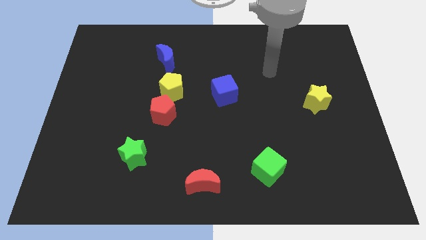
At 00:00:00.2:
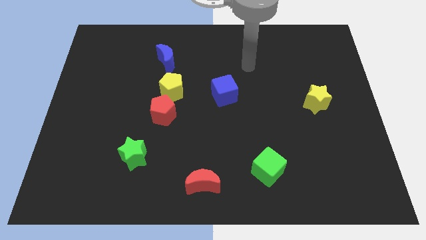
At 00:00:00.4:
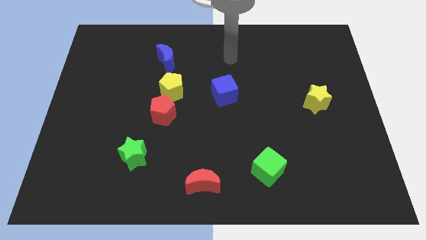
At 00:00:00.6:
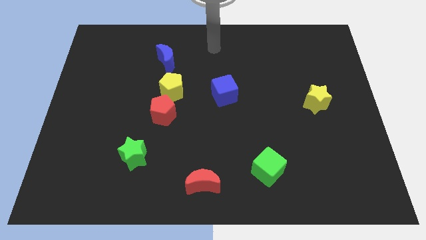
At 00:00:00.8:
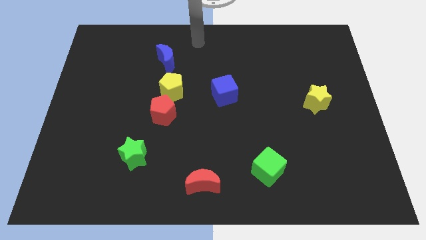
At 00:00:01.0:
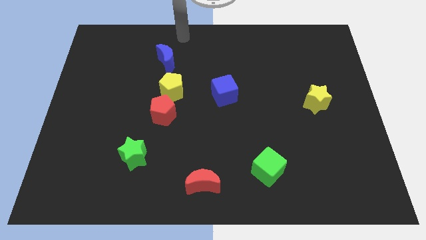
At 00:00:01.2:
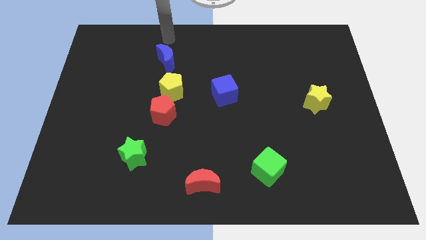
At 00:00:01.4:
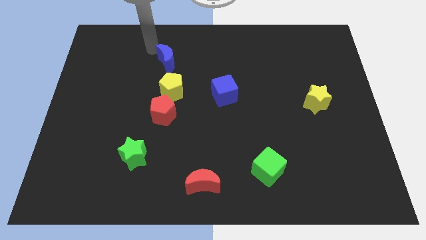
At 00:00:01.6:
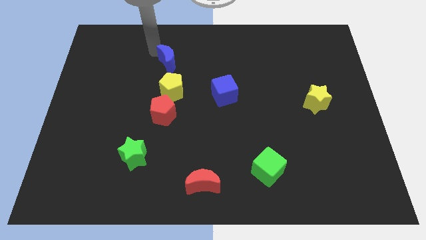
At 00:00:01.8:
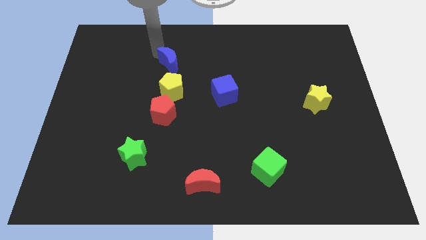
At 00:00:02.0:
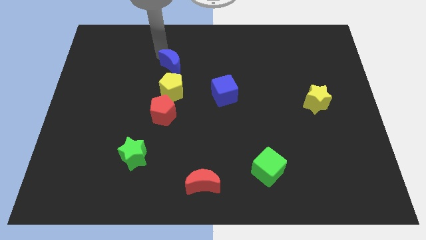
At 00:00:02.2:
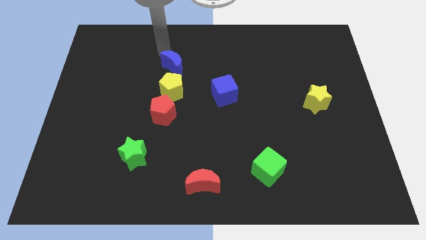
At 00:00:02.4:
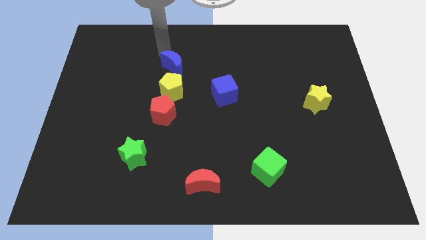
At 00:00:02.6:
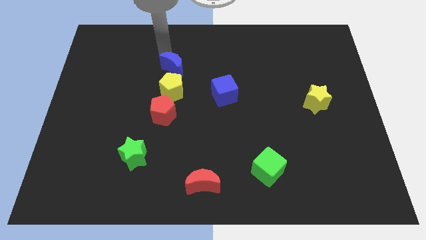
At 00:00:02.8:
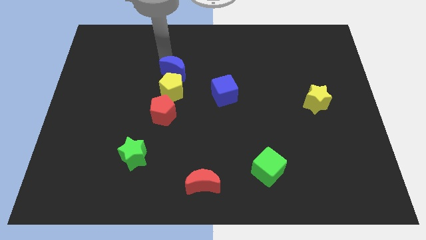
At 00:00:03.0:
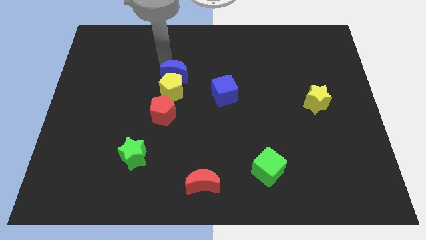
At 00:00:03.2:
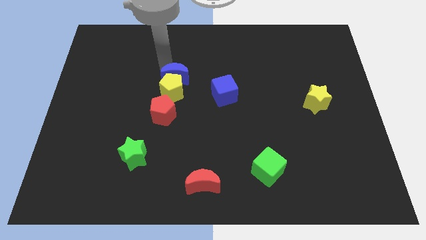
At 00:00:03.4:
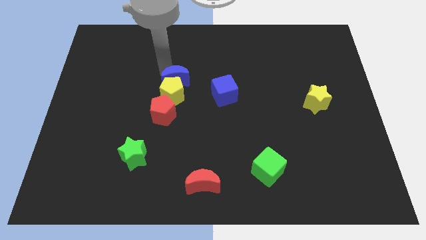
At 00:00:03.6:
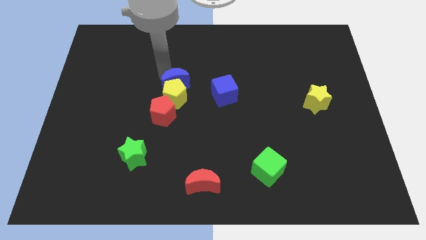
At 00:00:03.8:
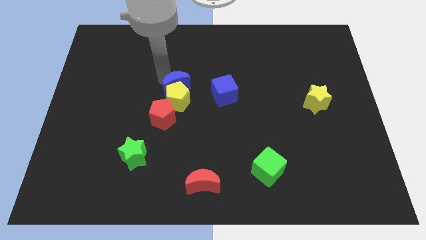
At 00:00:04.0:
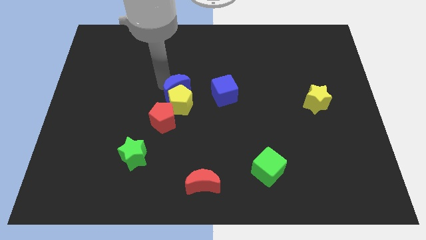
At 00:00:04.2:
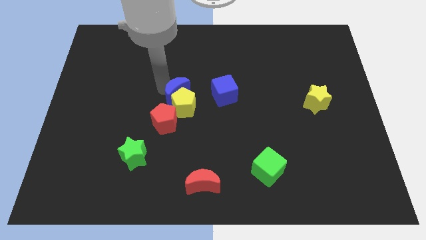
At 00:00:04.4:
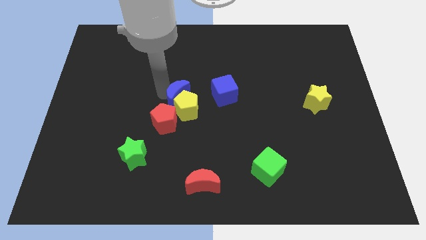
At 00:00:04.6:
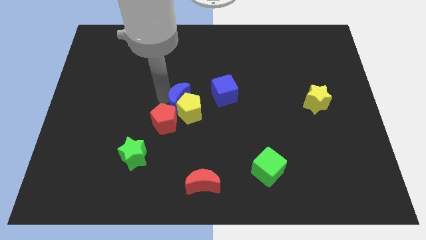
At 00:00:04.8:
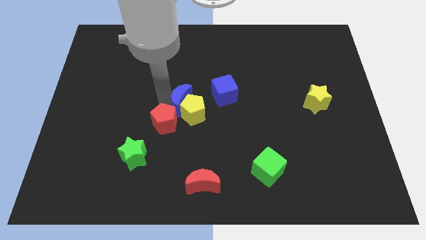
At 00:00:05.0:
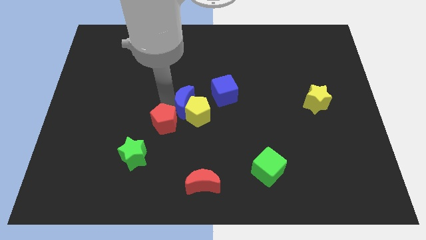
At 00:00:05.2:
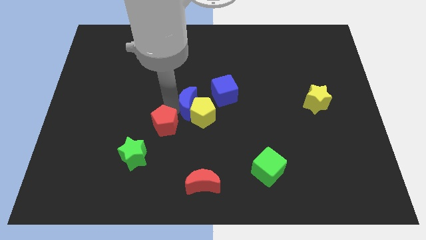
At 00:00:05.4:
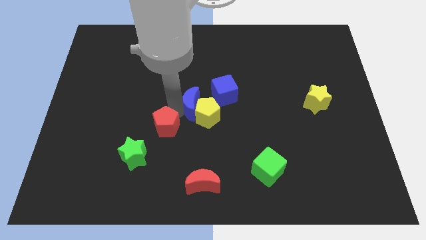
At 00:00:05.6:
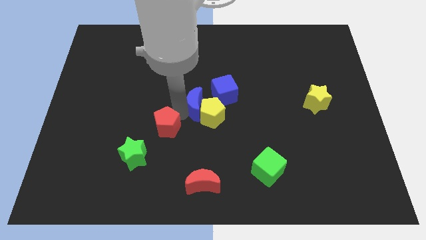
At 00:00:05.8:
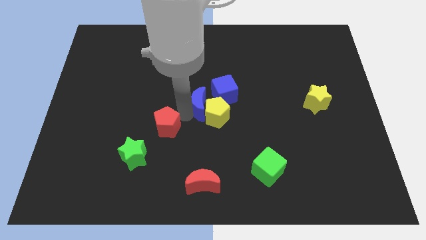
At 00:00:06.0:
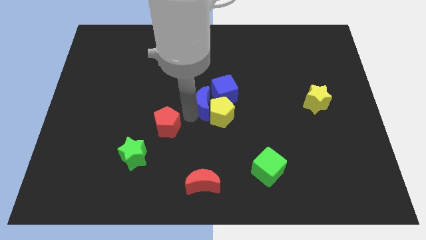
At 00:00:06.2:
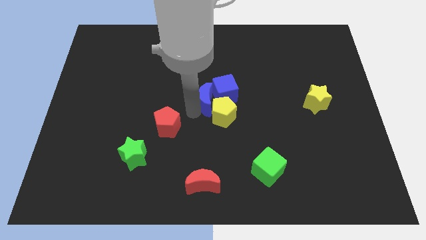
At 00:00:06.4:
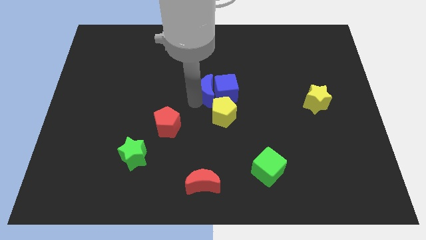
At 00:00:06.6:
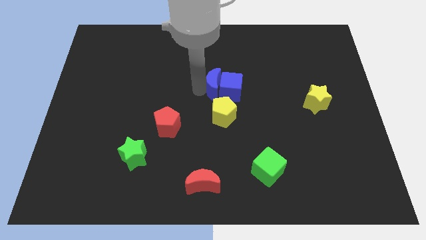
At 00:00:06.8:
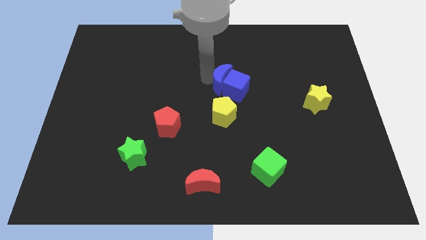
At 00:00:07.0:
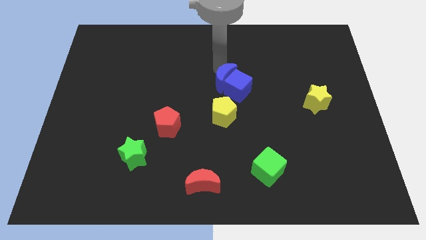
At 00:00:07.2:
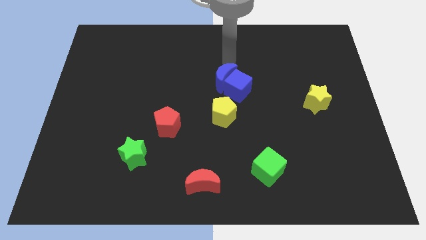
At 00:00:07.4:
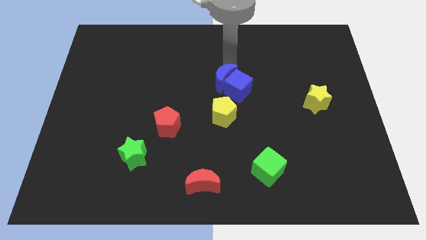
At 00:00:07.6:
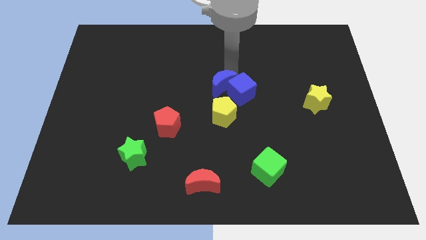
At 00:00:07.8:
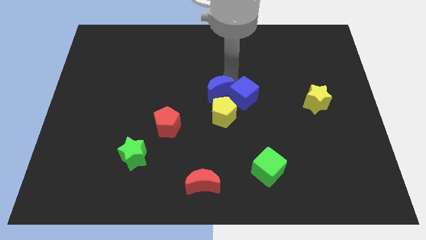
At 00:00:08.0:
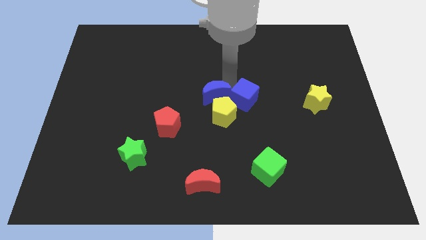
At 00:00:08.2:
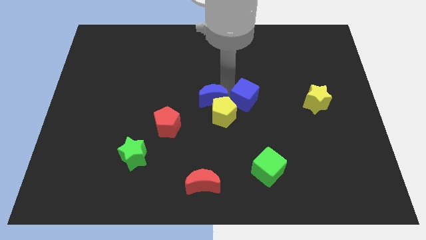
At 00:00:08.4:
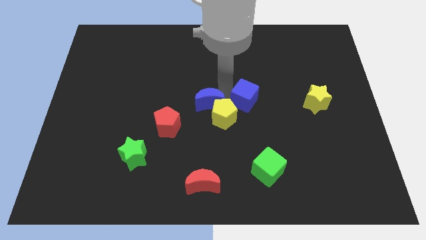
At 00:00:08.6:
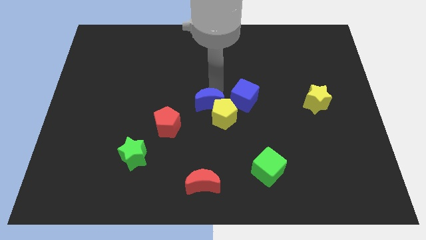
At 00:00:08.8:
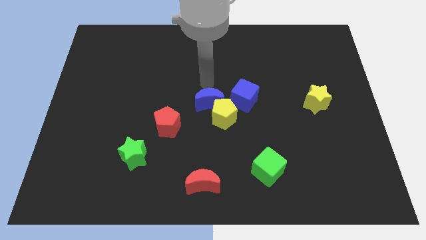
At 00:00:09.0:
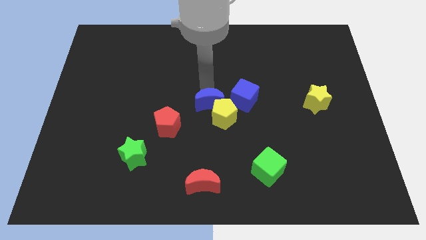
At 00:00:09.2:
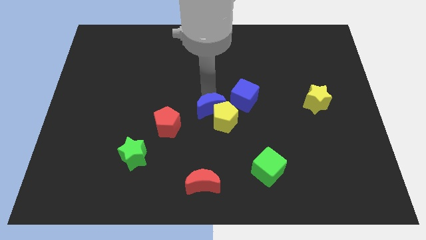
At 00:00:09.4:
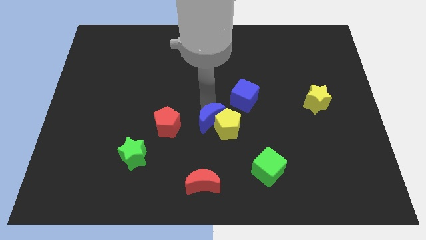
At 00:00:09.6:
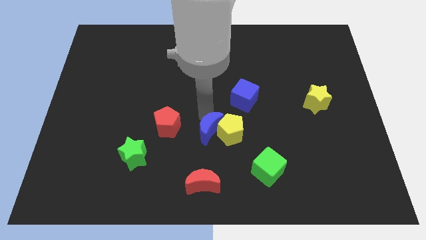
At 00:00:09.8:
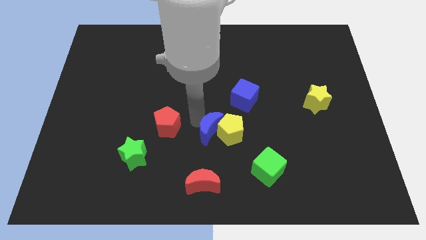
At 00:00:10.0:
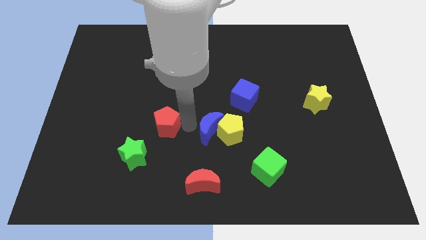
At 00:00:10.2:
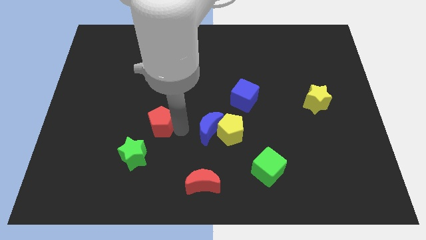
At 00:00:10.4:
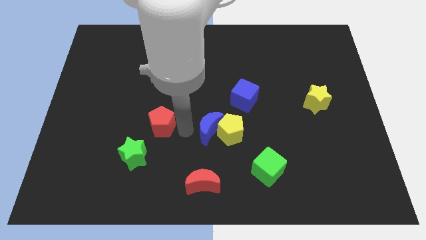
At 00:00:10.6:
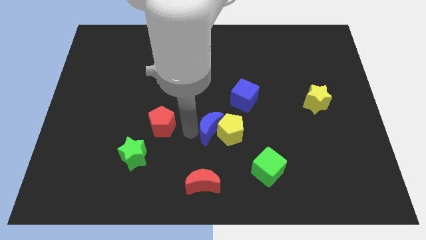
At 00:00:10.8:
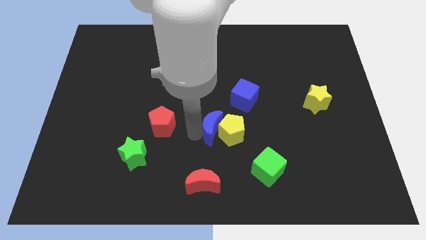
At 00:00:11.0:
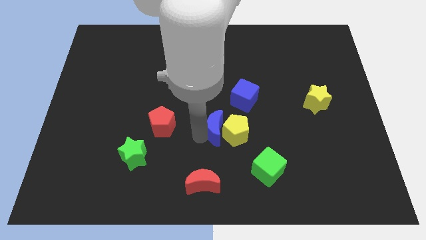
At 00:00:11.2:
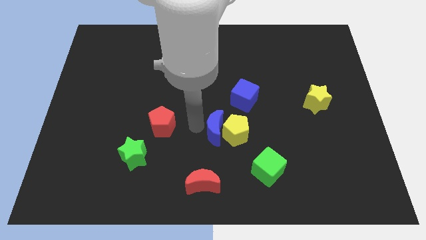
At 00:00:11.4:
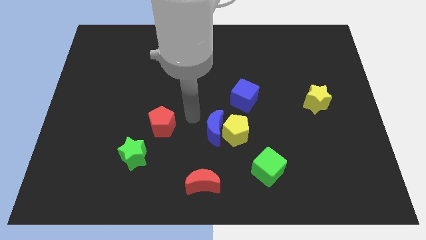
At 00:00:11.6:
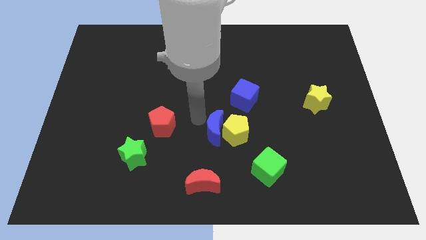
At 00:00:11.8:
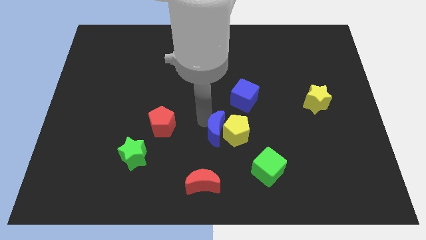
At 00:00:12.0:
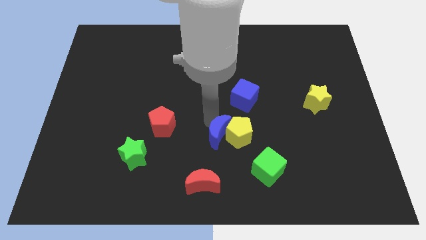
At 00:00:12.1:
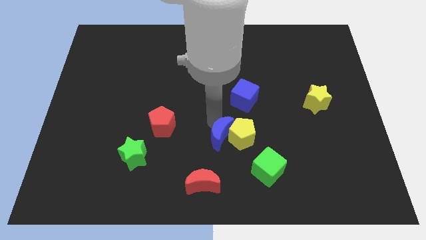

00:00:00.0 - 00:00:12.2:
slide the blue moon to the top left side of the green cube

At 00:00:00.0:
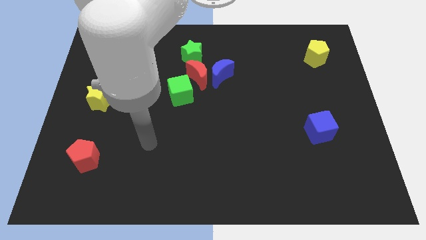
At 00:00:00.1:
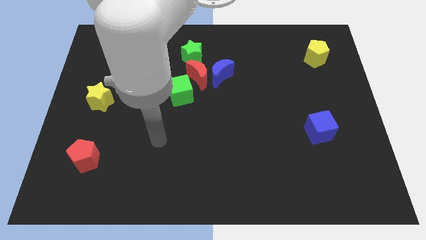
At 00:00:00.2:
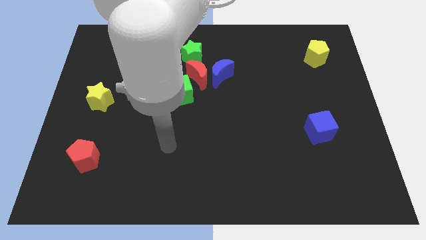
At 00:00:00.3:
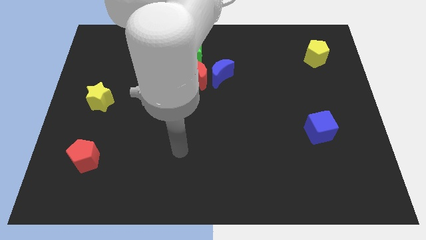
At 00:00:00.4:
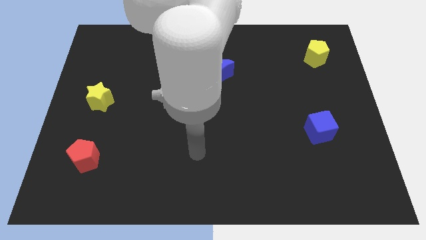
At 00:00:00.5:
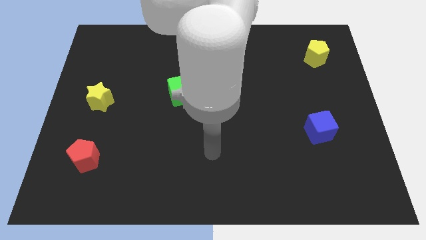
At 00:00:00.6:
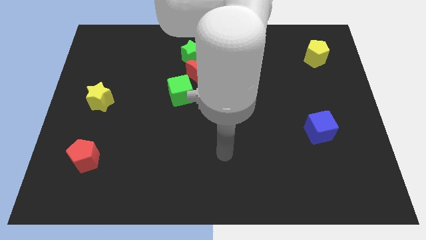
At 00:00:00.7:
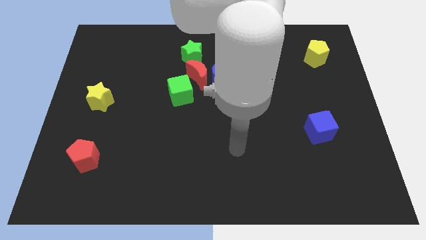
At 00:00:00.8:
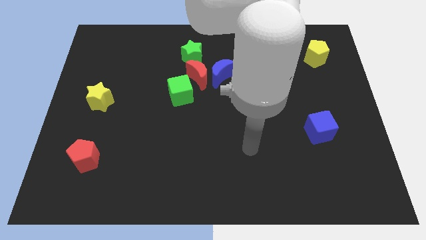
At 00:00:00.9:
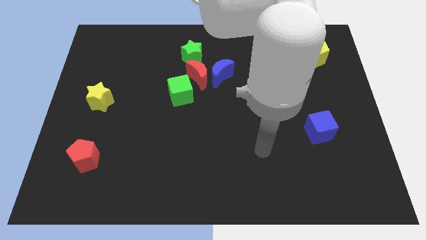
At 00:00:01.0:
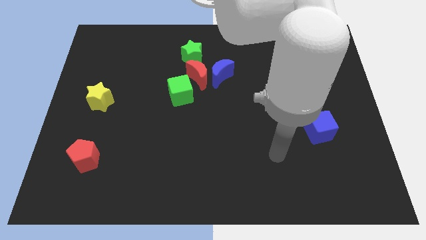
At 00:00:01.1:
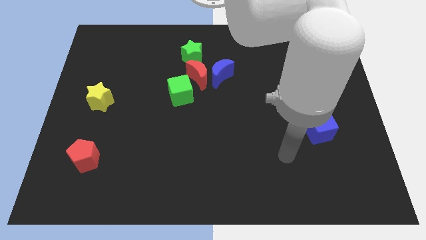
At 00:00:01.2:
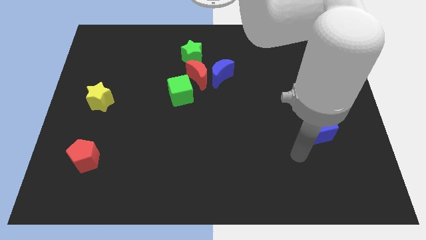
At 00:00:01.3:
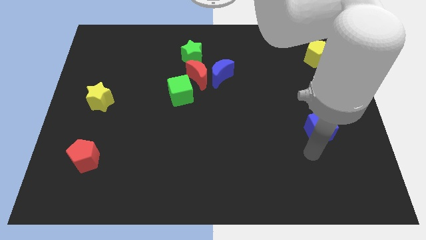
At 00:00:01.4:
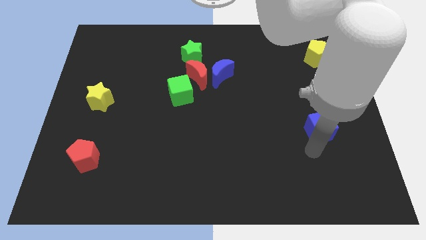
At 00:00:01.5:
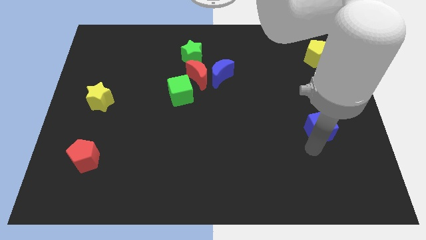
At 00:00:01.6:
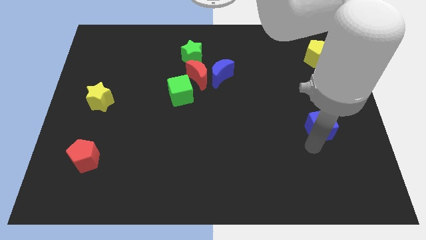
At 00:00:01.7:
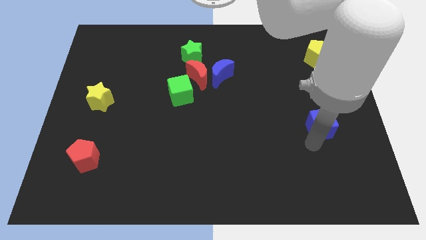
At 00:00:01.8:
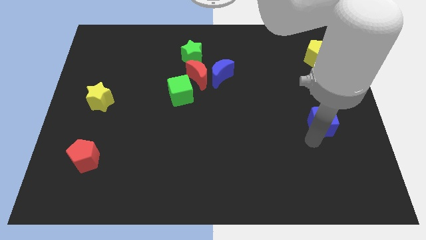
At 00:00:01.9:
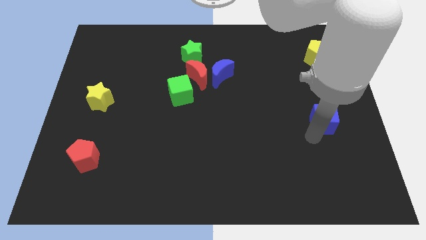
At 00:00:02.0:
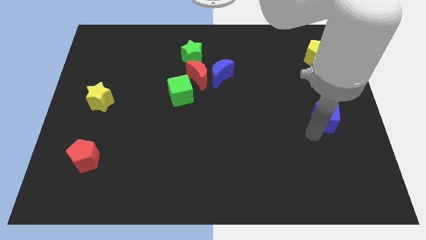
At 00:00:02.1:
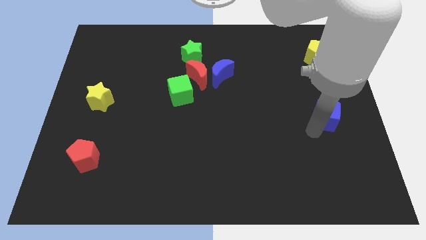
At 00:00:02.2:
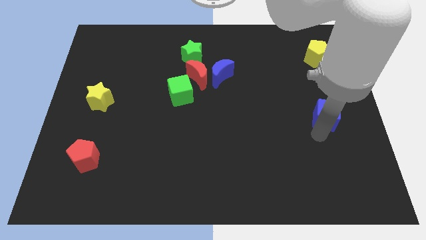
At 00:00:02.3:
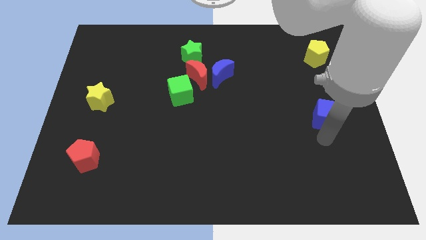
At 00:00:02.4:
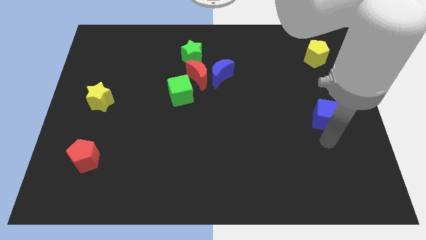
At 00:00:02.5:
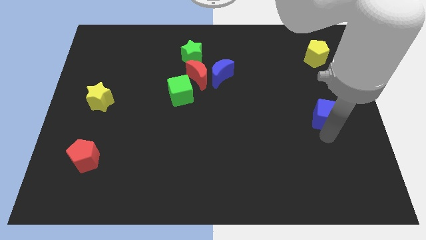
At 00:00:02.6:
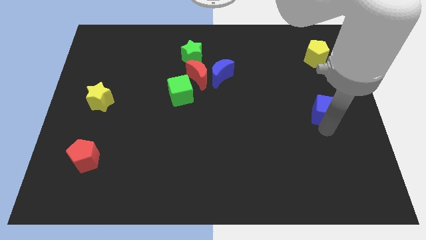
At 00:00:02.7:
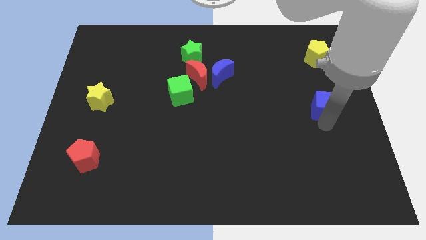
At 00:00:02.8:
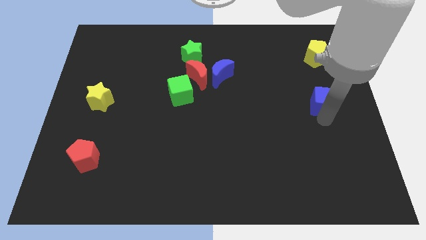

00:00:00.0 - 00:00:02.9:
move the blue cube to the bottom side of the yellow pentagon
